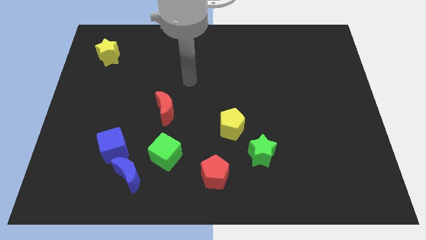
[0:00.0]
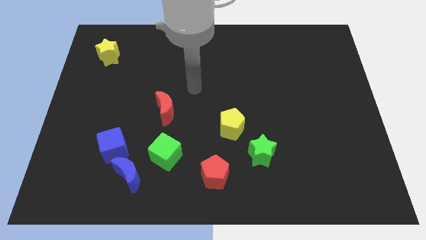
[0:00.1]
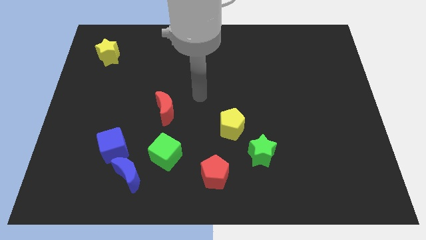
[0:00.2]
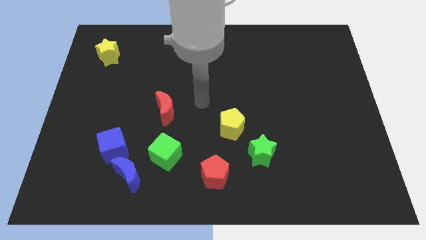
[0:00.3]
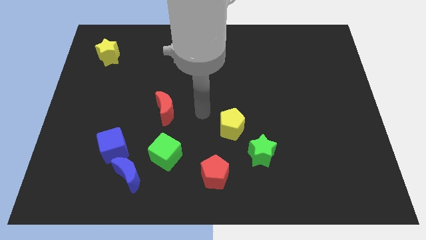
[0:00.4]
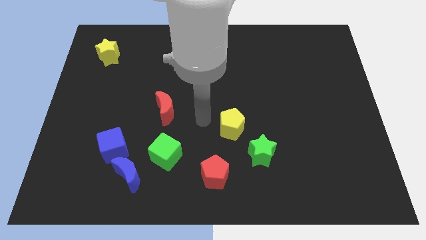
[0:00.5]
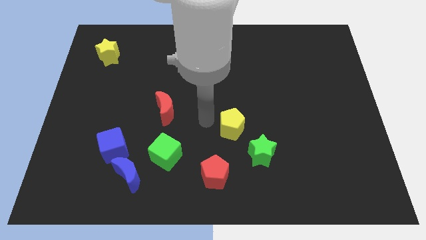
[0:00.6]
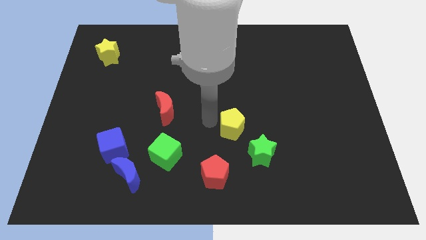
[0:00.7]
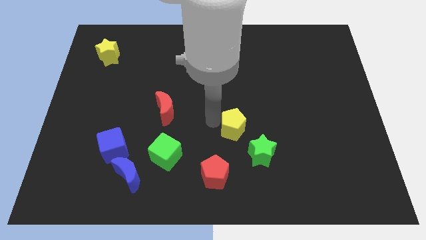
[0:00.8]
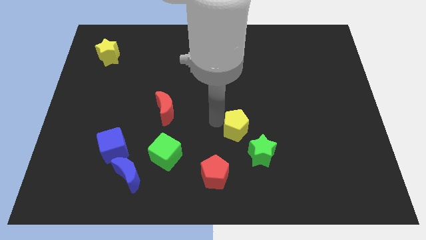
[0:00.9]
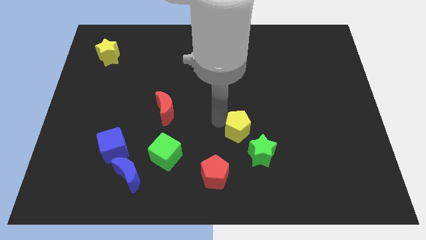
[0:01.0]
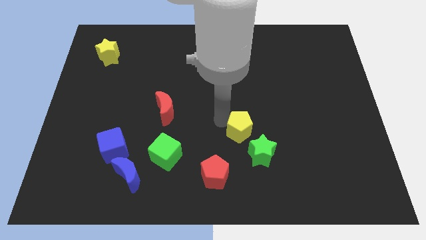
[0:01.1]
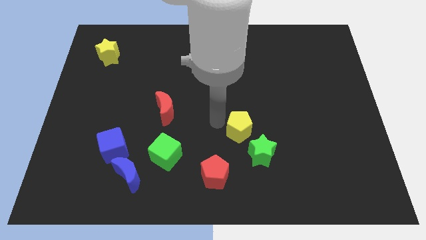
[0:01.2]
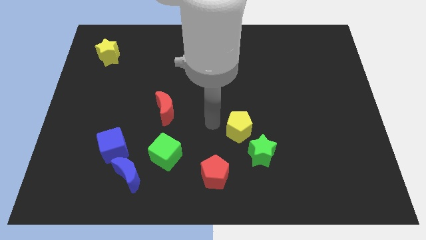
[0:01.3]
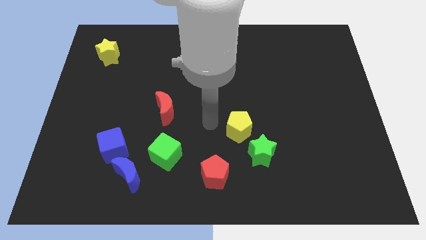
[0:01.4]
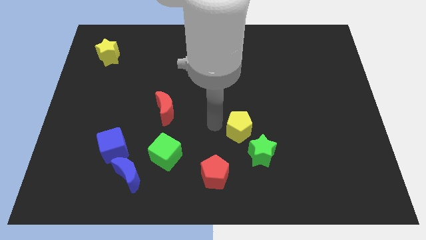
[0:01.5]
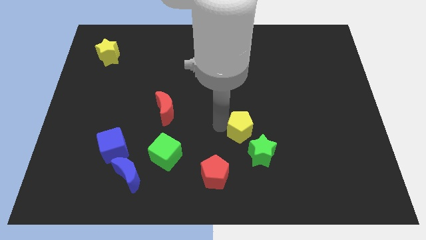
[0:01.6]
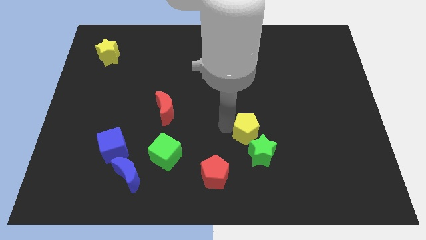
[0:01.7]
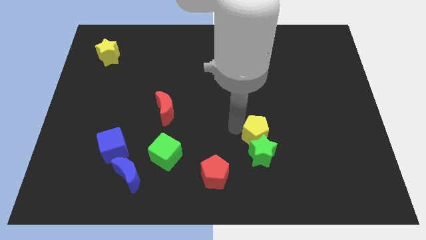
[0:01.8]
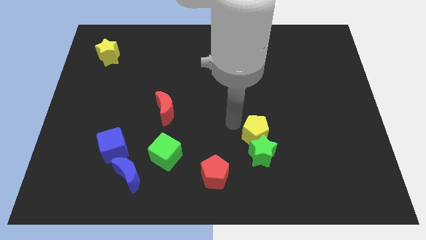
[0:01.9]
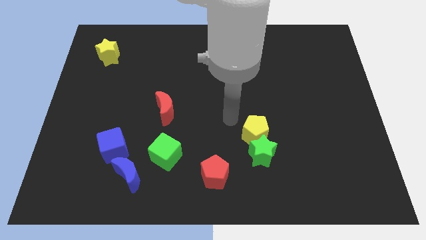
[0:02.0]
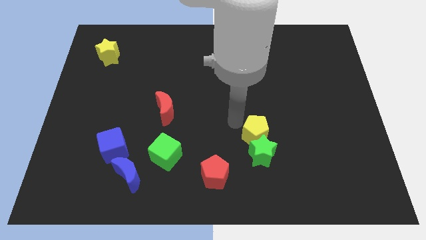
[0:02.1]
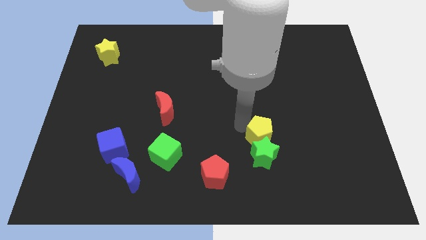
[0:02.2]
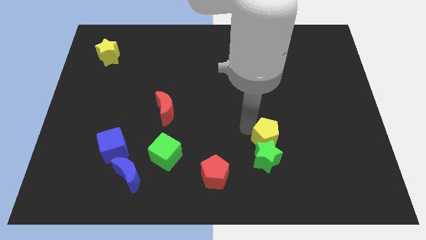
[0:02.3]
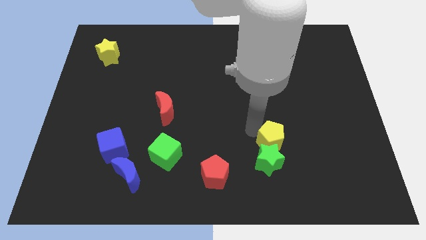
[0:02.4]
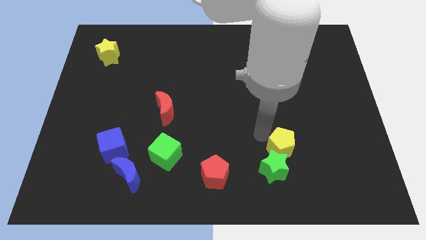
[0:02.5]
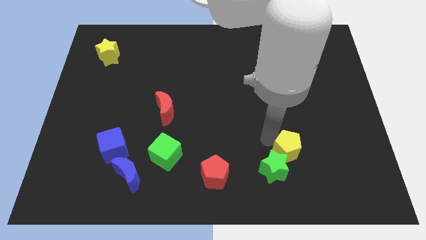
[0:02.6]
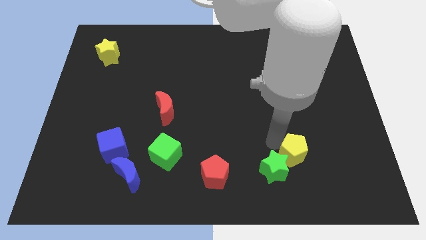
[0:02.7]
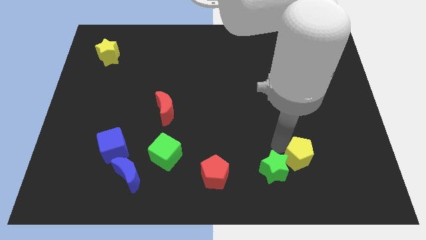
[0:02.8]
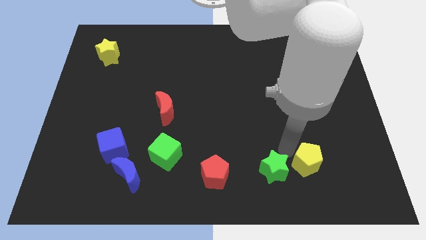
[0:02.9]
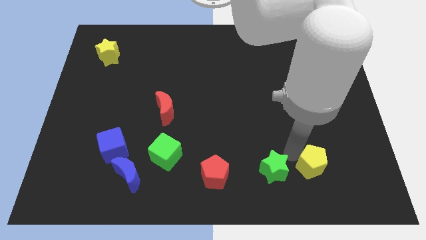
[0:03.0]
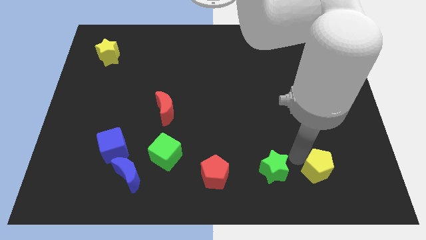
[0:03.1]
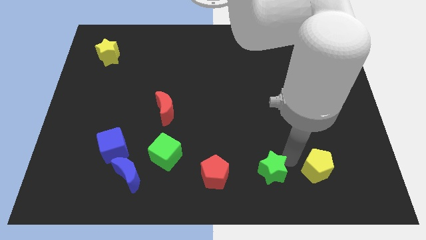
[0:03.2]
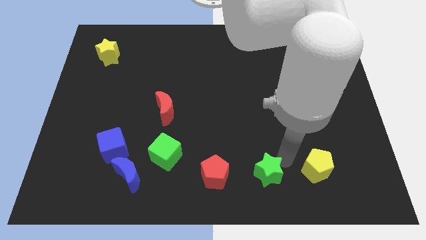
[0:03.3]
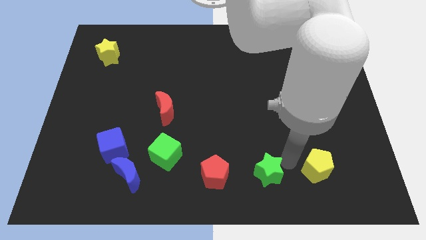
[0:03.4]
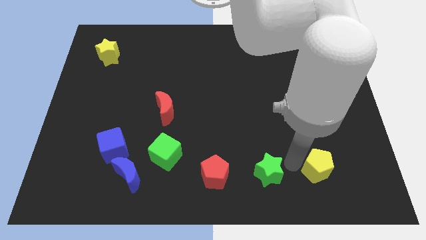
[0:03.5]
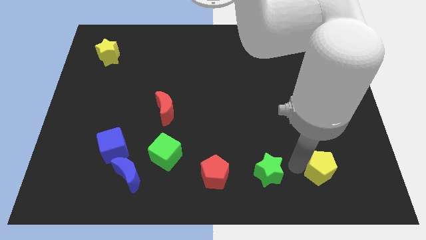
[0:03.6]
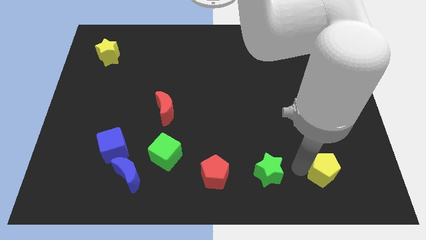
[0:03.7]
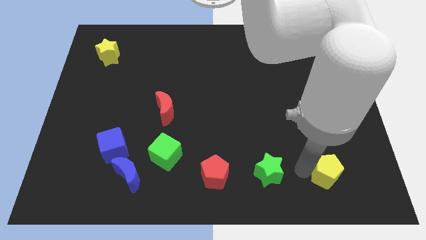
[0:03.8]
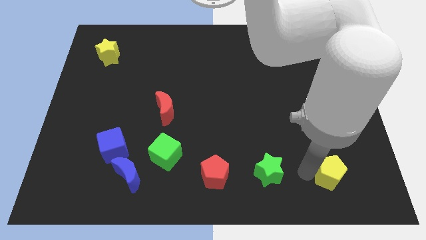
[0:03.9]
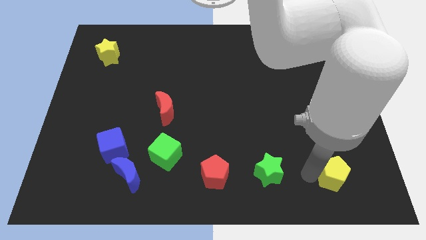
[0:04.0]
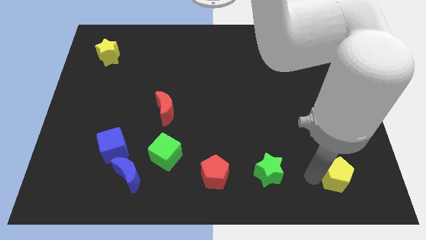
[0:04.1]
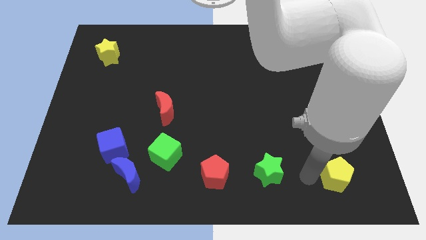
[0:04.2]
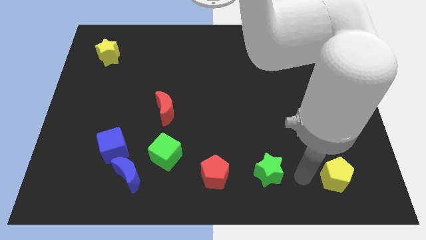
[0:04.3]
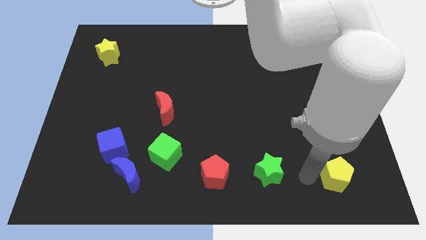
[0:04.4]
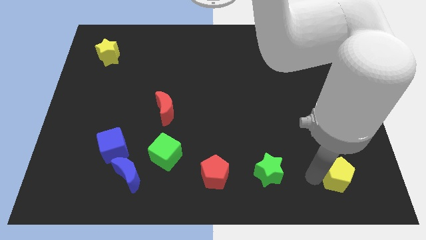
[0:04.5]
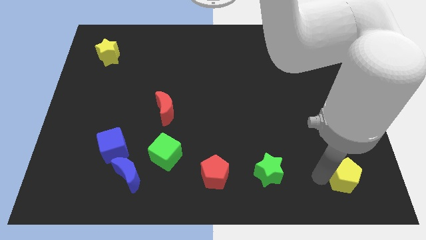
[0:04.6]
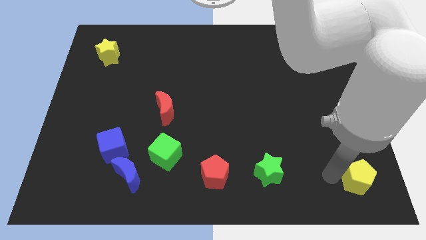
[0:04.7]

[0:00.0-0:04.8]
slide the yellow pentagon to the bottom right

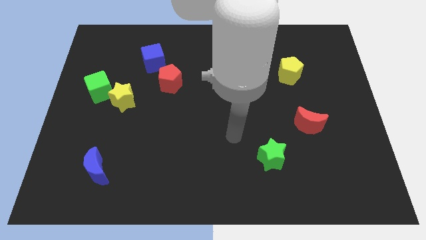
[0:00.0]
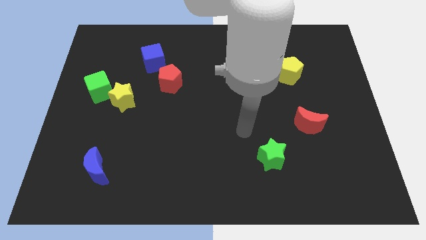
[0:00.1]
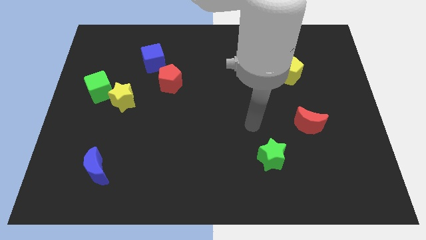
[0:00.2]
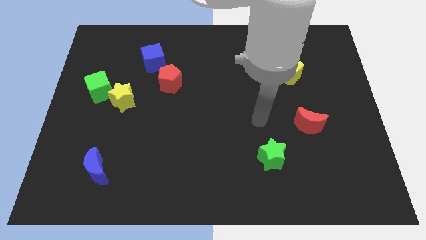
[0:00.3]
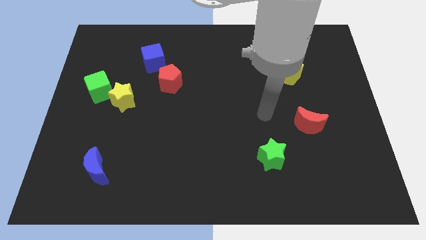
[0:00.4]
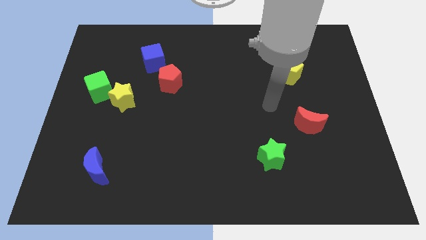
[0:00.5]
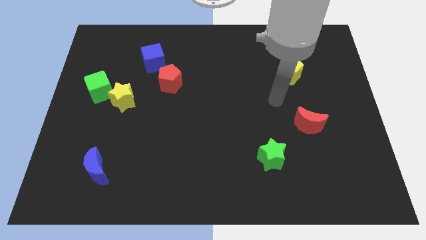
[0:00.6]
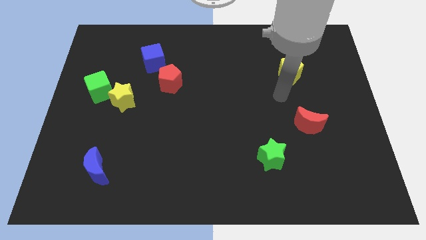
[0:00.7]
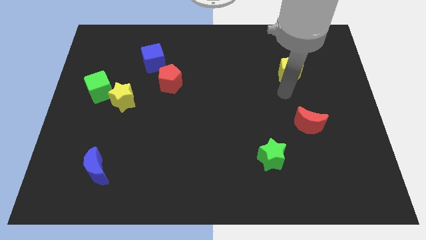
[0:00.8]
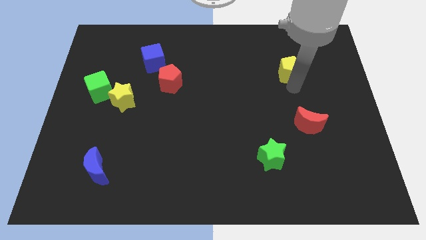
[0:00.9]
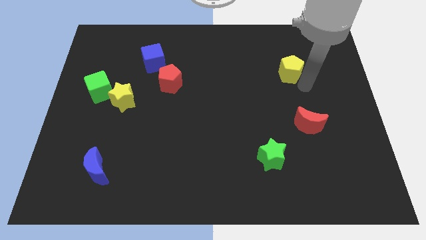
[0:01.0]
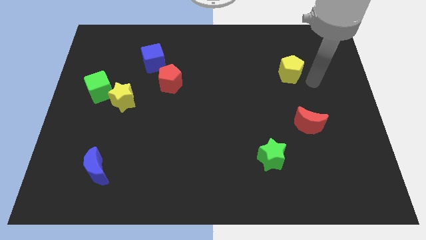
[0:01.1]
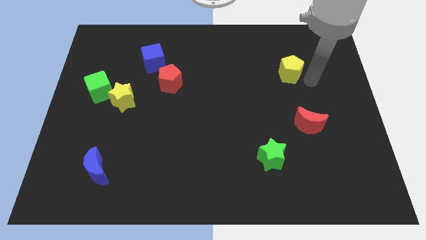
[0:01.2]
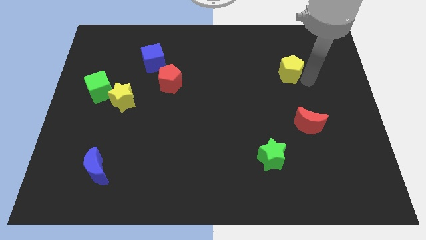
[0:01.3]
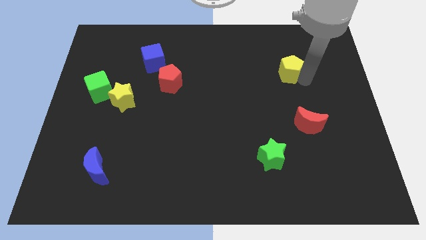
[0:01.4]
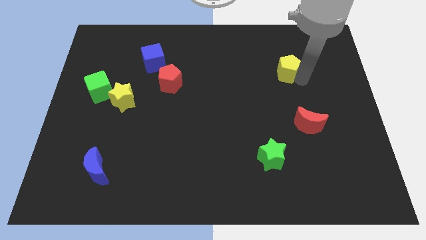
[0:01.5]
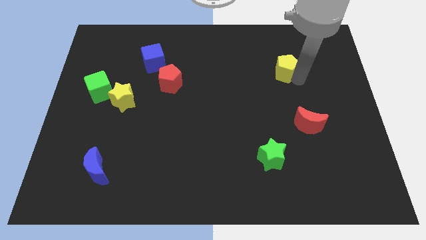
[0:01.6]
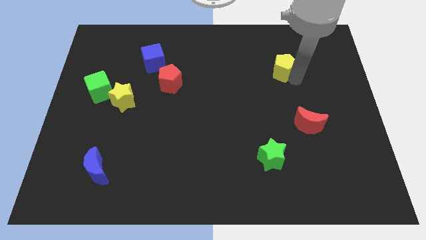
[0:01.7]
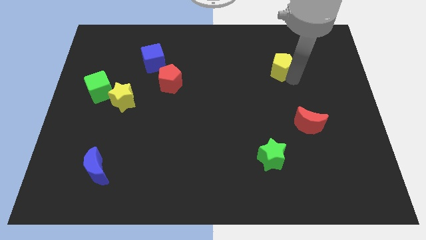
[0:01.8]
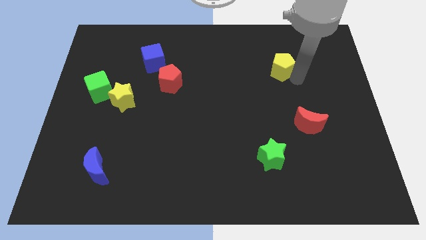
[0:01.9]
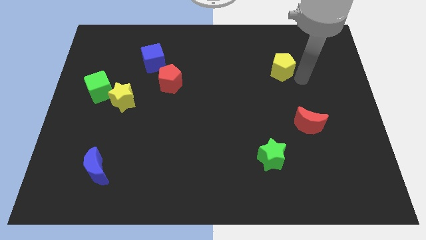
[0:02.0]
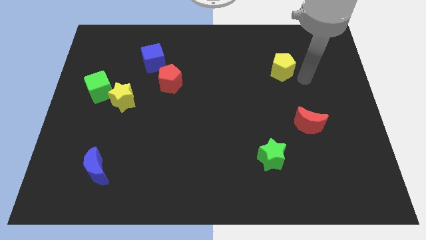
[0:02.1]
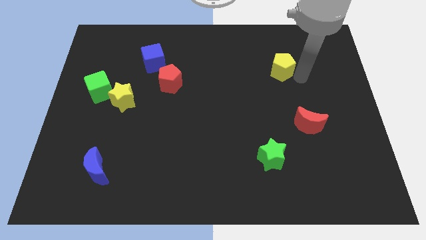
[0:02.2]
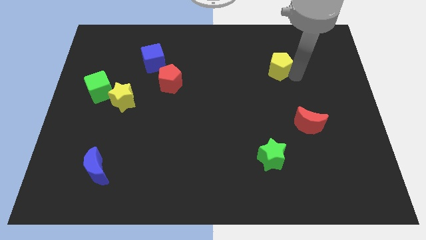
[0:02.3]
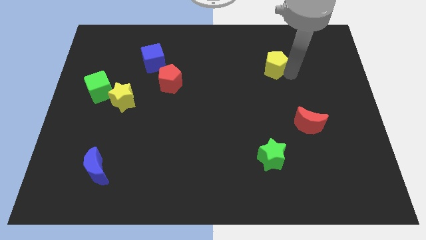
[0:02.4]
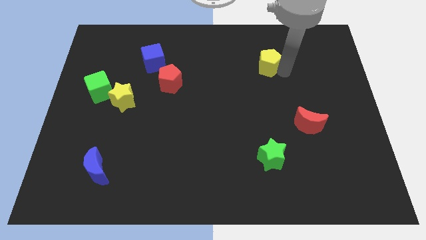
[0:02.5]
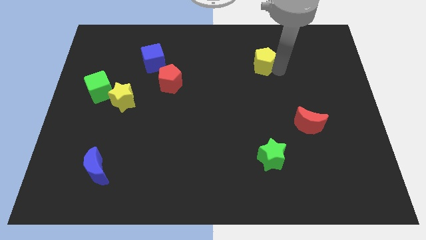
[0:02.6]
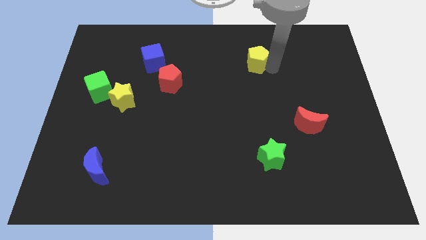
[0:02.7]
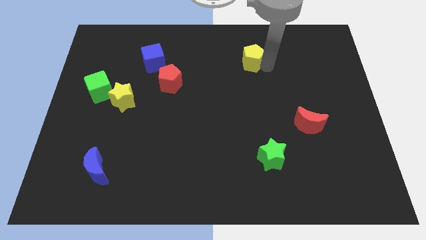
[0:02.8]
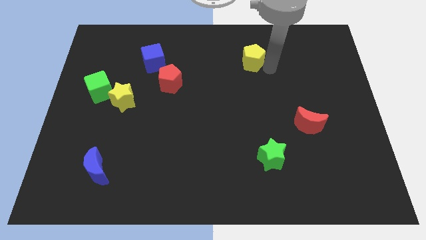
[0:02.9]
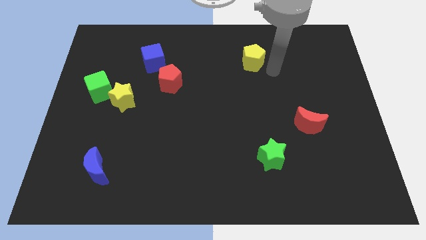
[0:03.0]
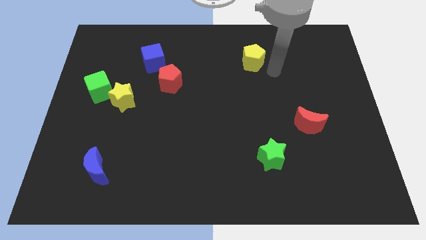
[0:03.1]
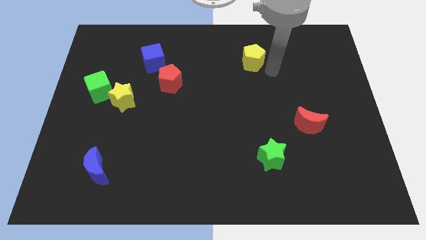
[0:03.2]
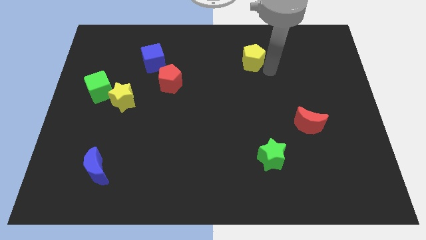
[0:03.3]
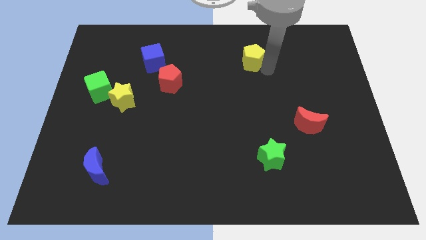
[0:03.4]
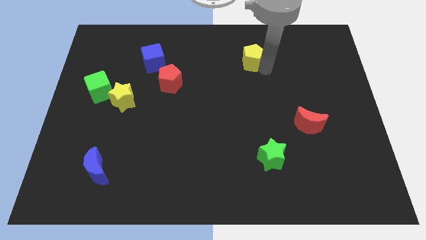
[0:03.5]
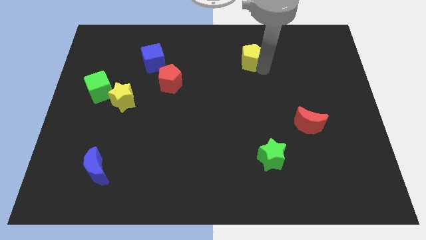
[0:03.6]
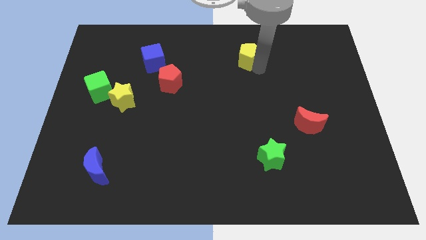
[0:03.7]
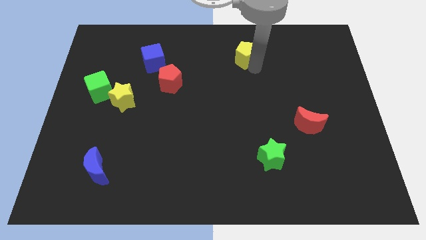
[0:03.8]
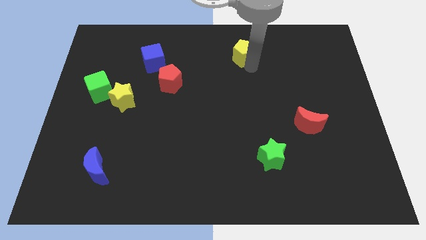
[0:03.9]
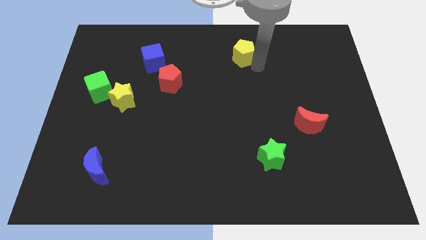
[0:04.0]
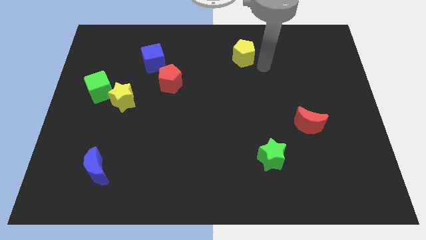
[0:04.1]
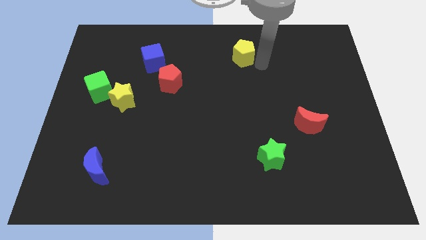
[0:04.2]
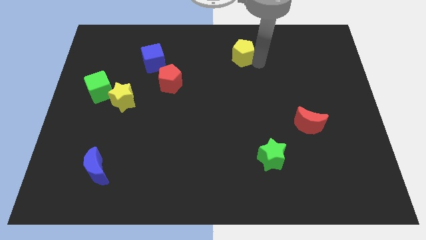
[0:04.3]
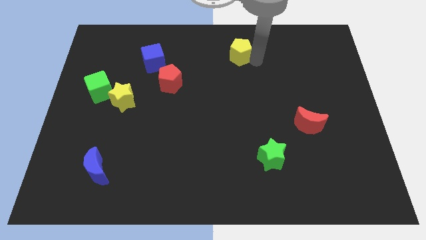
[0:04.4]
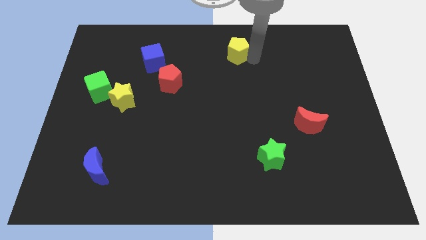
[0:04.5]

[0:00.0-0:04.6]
push the yellow pentagon to the towards your base
